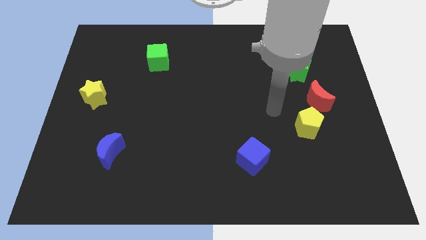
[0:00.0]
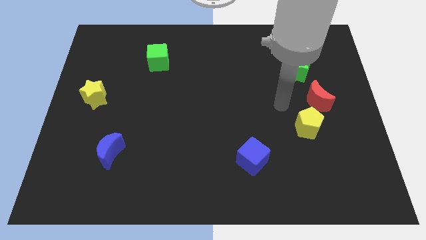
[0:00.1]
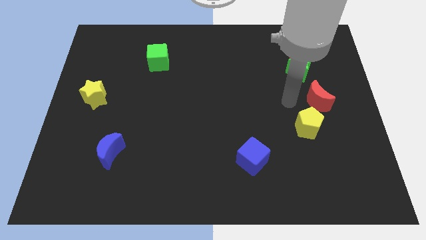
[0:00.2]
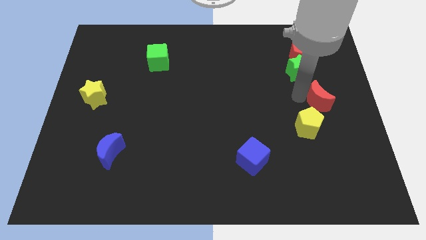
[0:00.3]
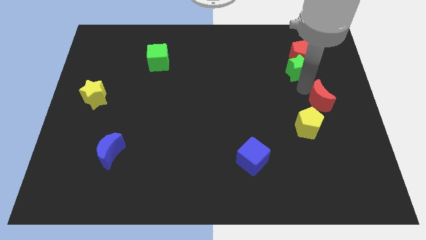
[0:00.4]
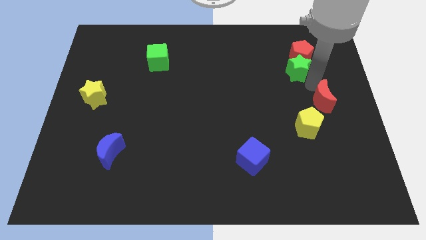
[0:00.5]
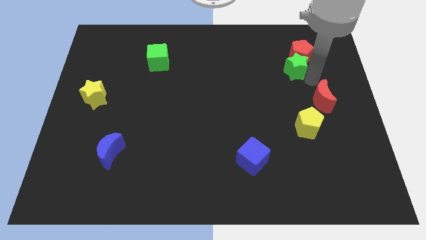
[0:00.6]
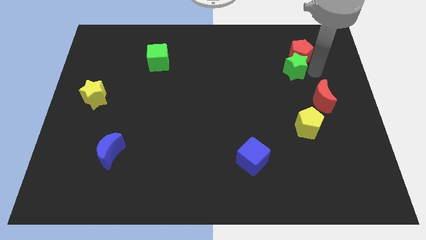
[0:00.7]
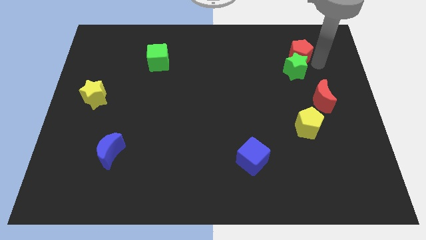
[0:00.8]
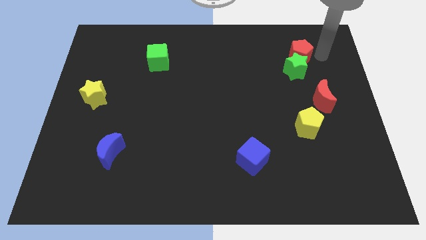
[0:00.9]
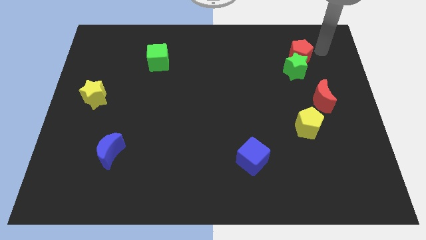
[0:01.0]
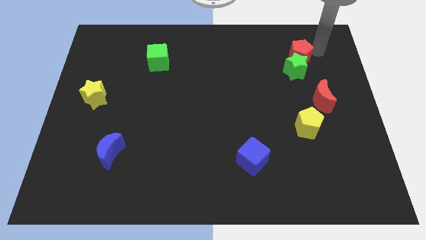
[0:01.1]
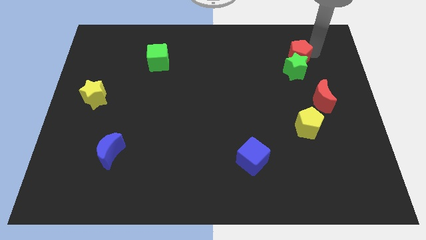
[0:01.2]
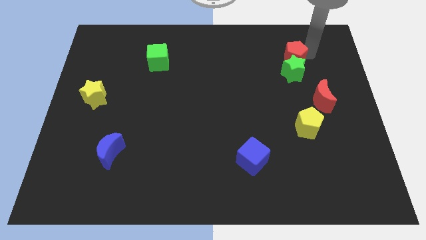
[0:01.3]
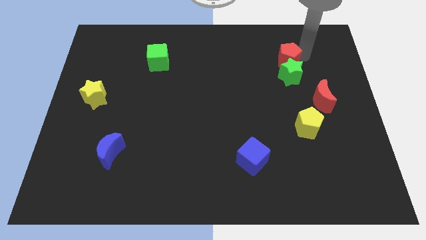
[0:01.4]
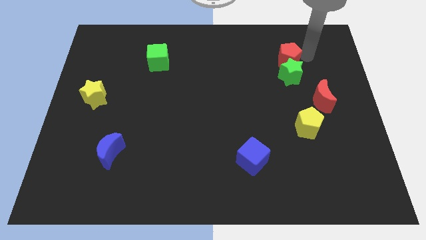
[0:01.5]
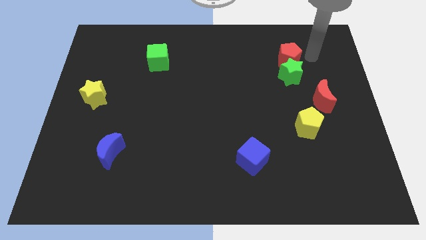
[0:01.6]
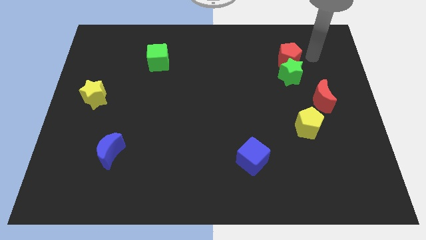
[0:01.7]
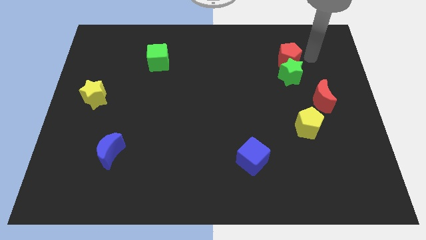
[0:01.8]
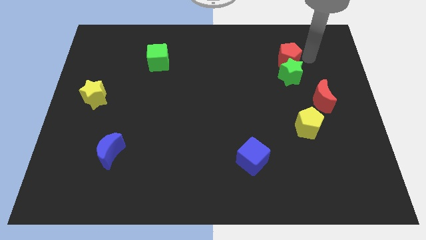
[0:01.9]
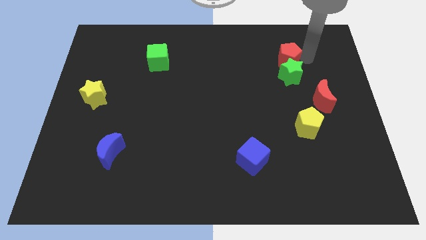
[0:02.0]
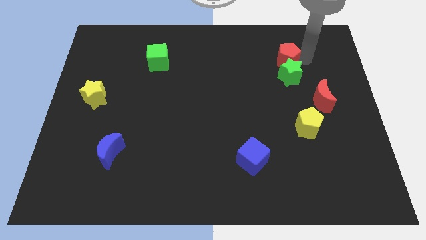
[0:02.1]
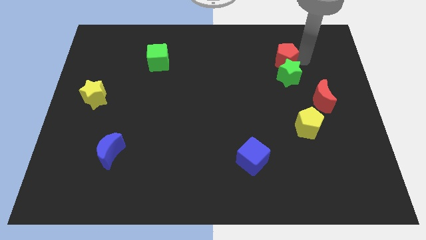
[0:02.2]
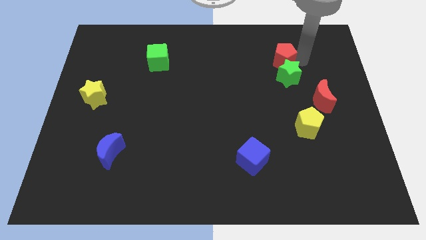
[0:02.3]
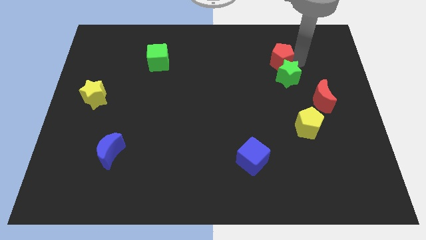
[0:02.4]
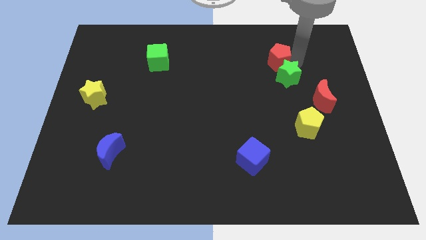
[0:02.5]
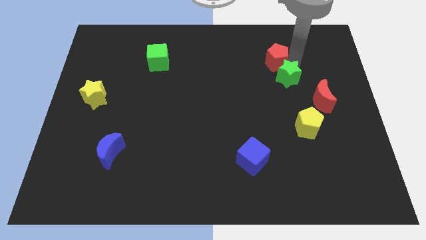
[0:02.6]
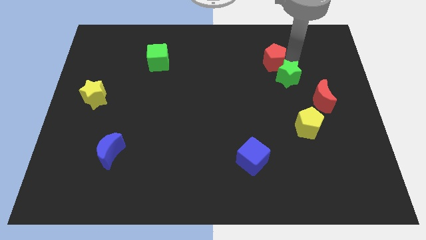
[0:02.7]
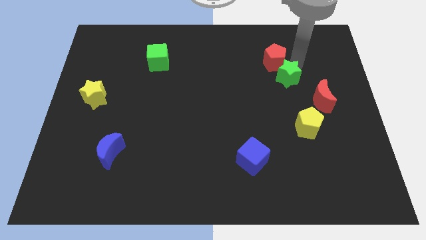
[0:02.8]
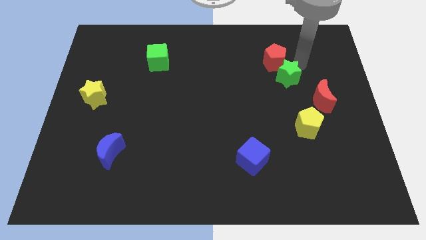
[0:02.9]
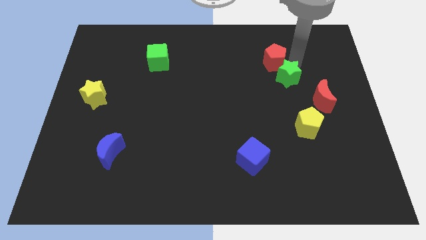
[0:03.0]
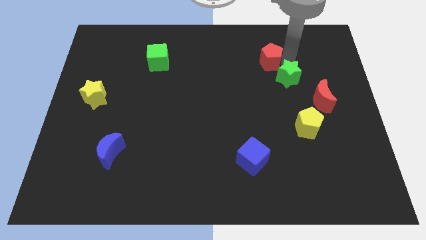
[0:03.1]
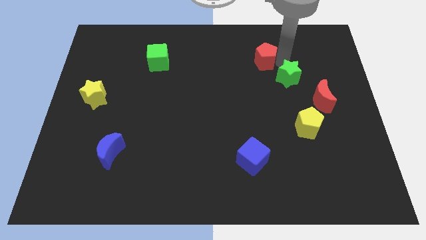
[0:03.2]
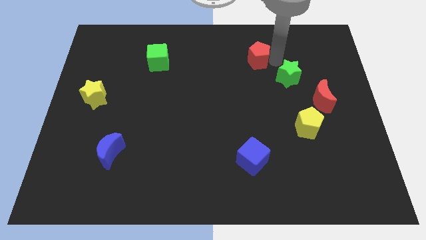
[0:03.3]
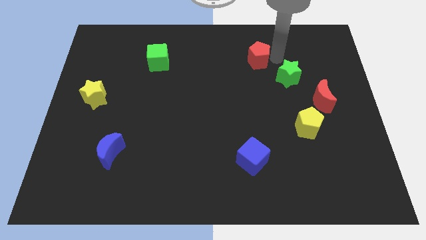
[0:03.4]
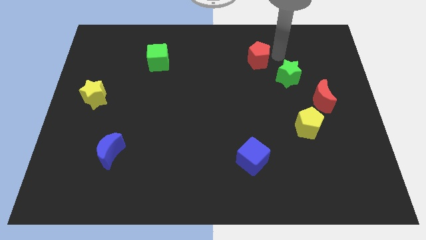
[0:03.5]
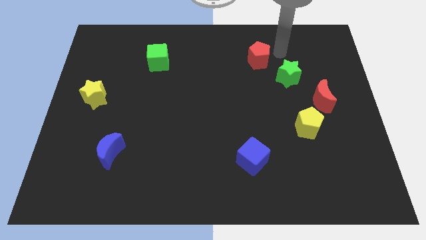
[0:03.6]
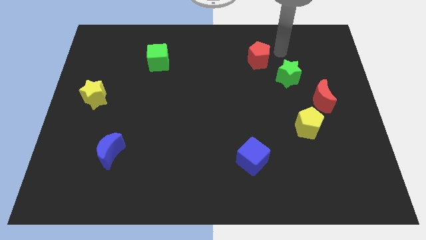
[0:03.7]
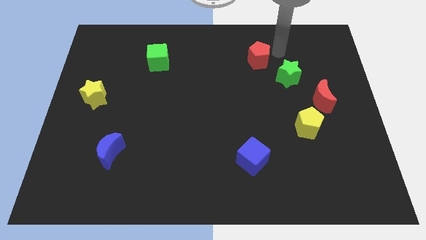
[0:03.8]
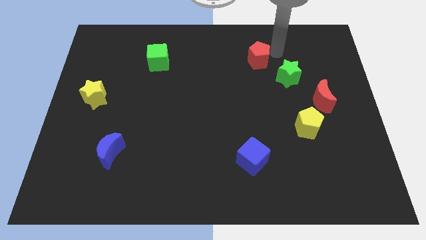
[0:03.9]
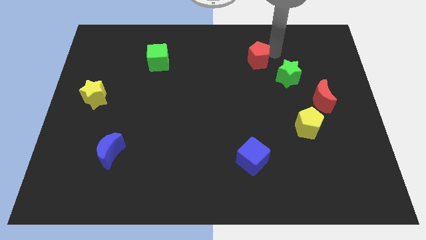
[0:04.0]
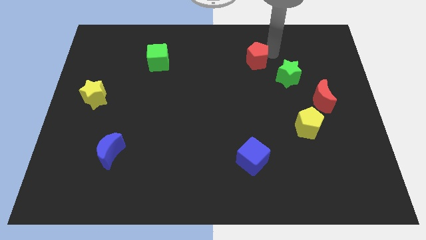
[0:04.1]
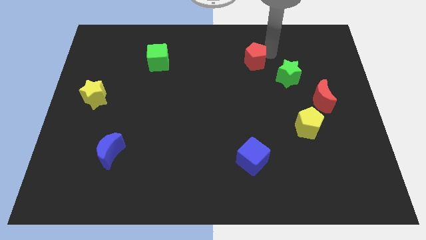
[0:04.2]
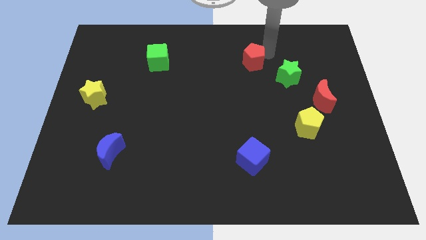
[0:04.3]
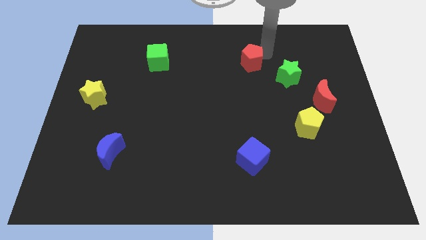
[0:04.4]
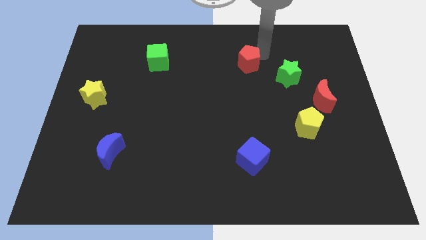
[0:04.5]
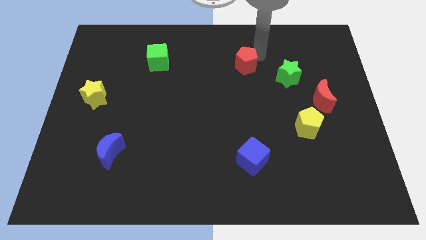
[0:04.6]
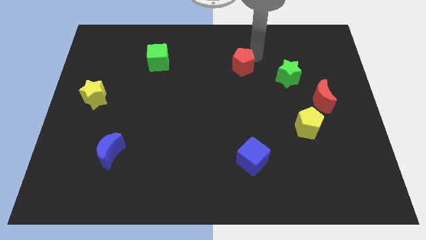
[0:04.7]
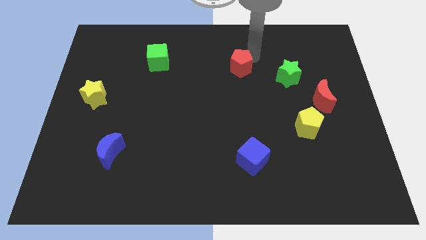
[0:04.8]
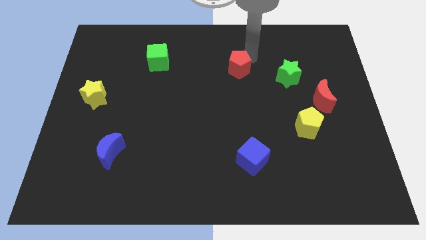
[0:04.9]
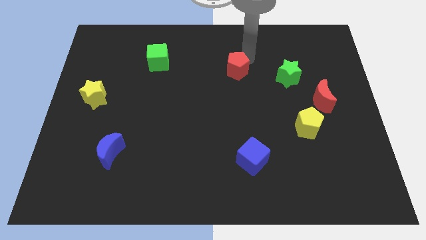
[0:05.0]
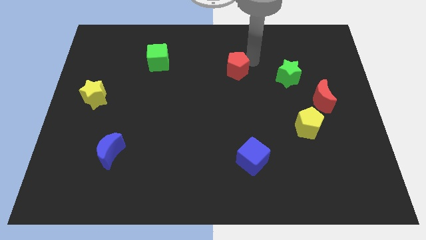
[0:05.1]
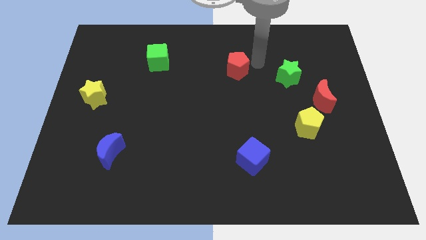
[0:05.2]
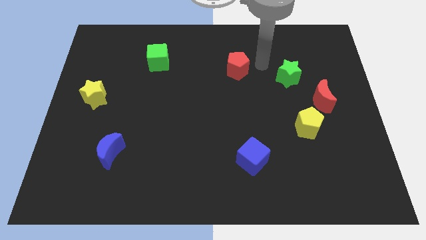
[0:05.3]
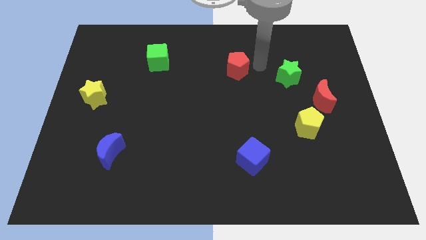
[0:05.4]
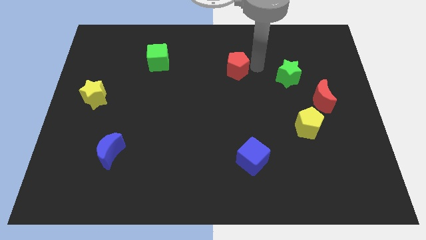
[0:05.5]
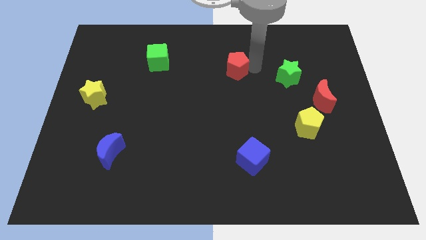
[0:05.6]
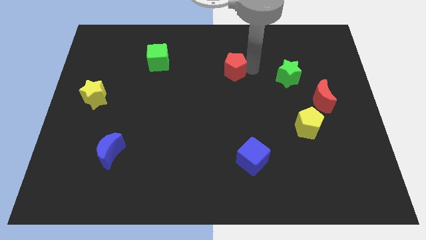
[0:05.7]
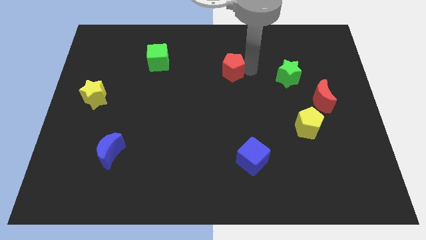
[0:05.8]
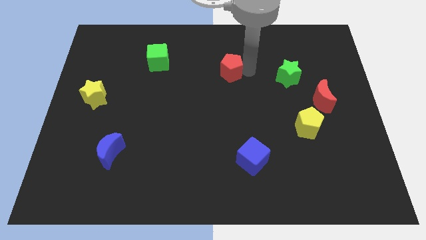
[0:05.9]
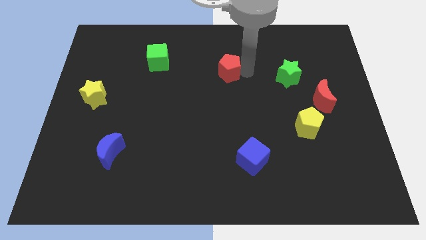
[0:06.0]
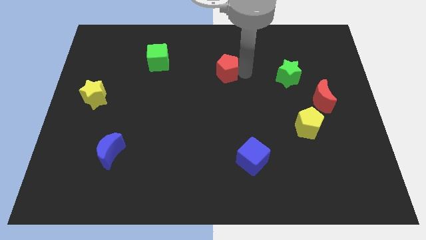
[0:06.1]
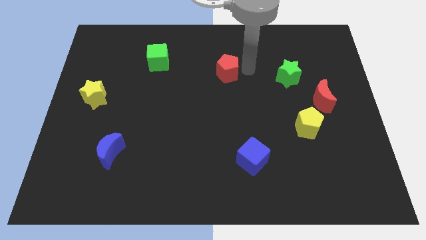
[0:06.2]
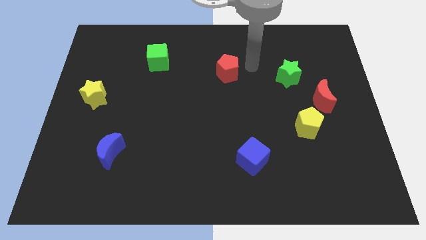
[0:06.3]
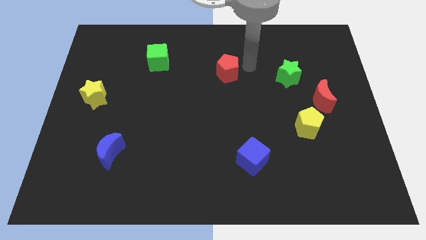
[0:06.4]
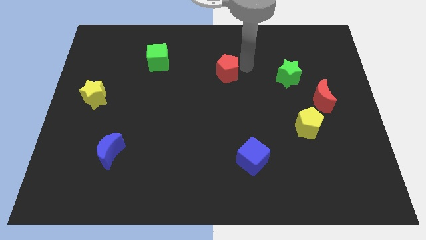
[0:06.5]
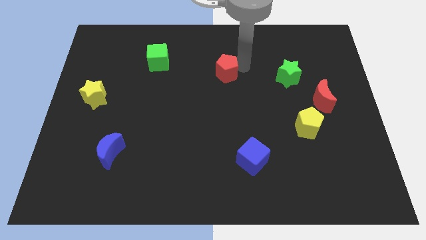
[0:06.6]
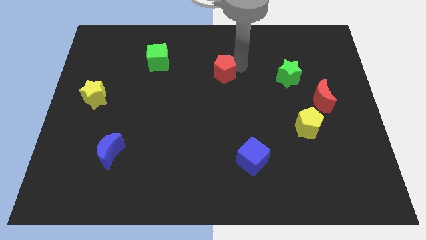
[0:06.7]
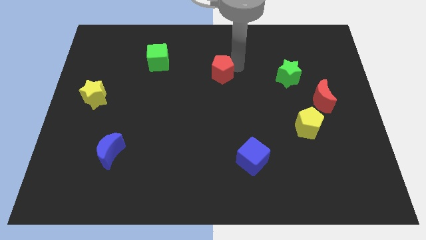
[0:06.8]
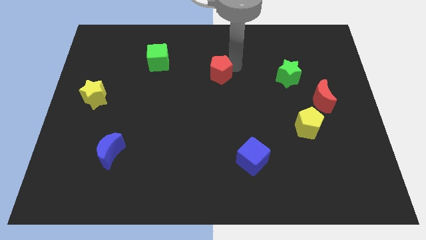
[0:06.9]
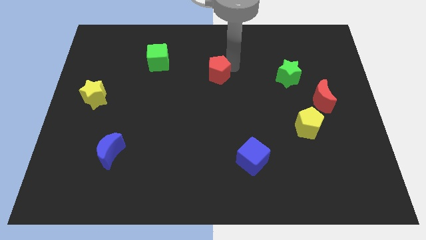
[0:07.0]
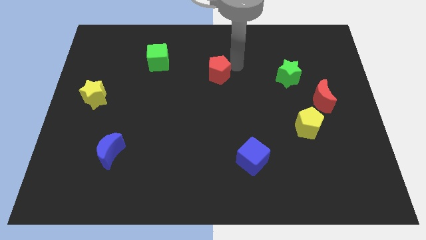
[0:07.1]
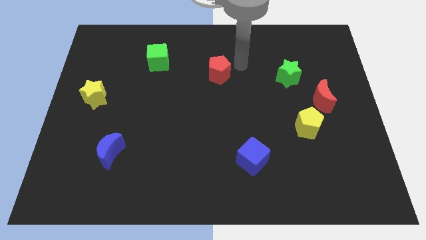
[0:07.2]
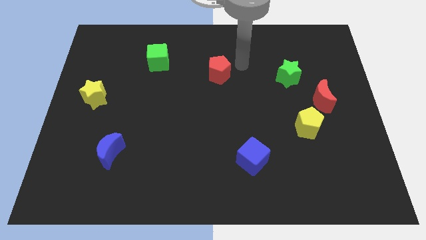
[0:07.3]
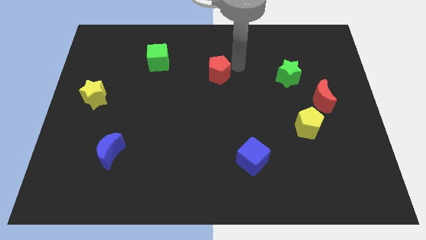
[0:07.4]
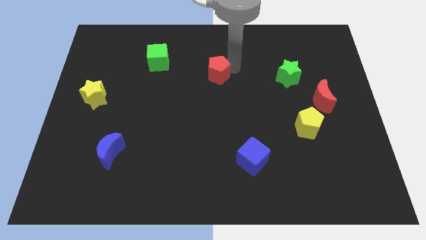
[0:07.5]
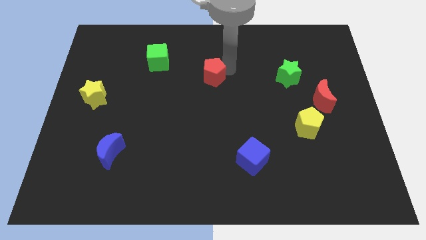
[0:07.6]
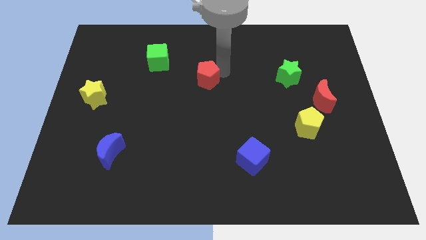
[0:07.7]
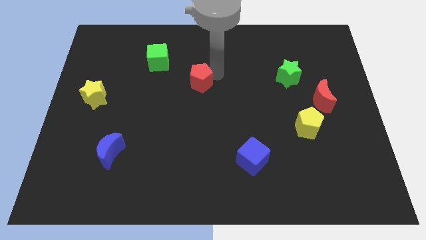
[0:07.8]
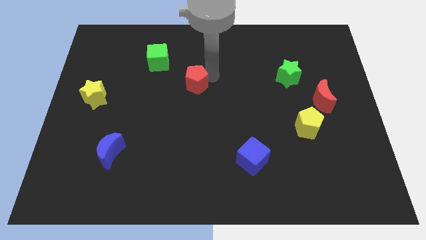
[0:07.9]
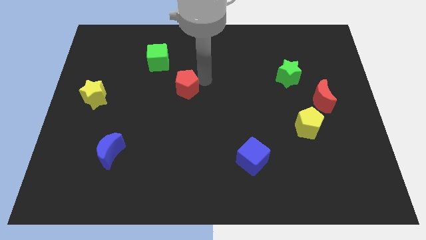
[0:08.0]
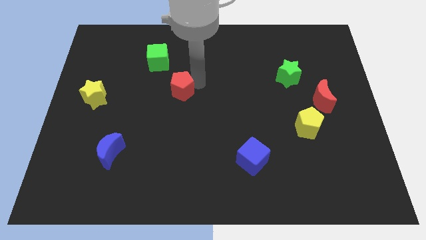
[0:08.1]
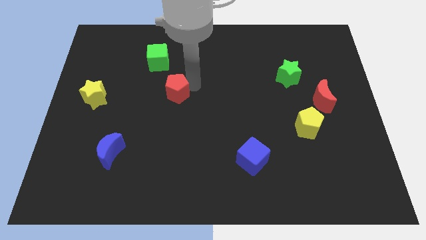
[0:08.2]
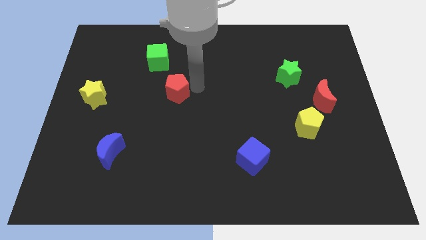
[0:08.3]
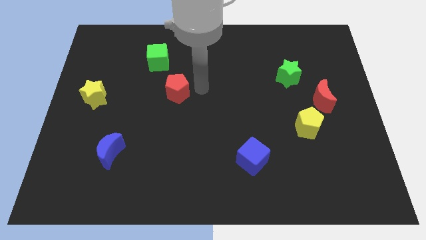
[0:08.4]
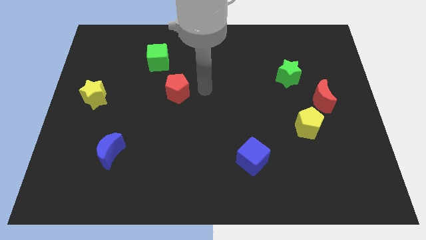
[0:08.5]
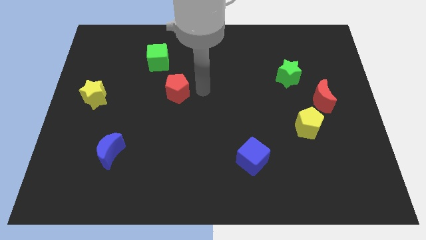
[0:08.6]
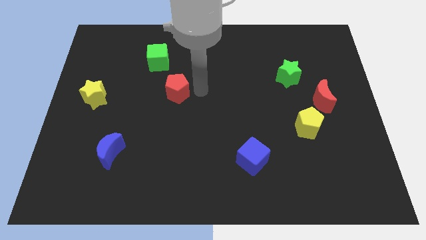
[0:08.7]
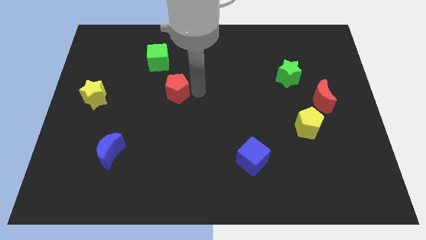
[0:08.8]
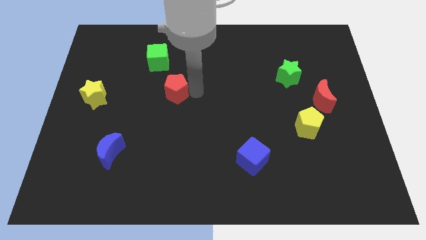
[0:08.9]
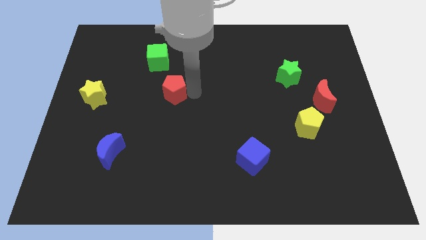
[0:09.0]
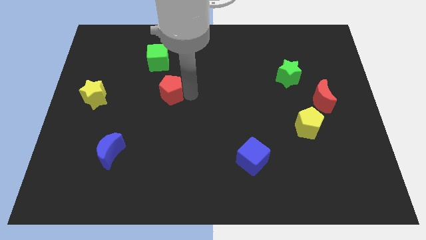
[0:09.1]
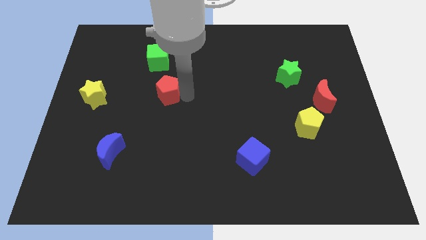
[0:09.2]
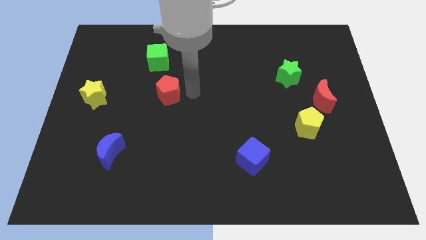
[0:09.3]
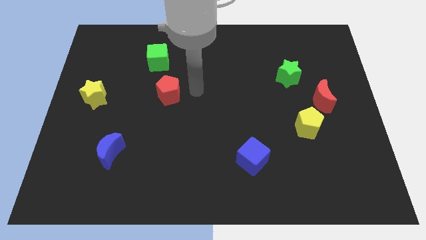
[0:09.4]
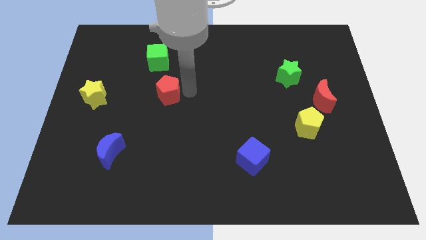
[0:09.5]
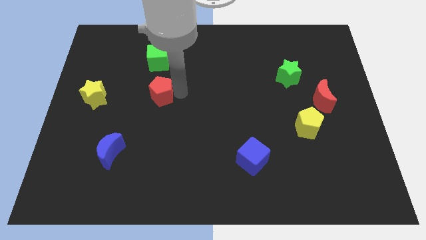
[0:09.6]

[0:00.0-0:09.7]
put the red pentagon to the right of the yellow star
